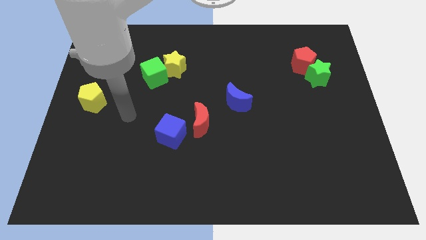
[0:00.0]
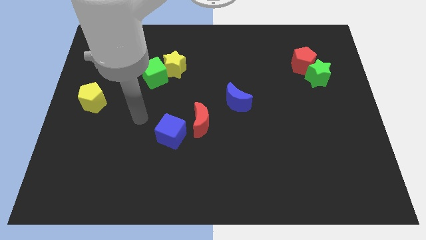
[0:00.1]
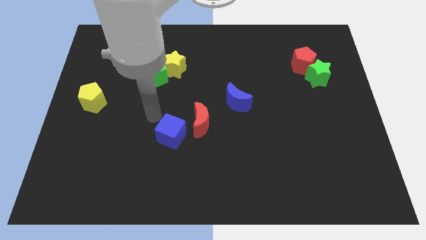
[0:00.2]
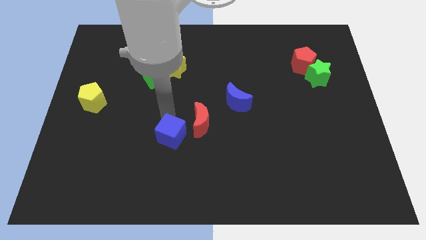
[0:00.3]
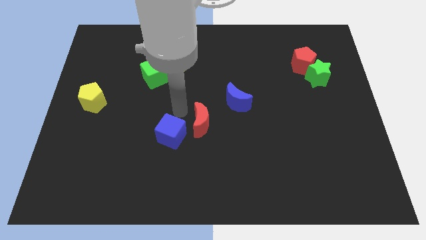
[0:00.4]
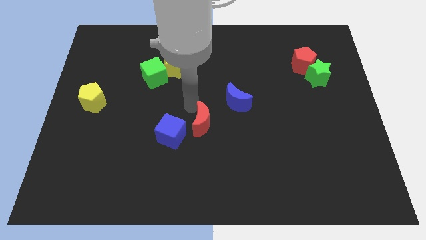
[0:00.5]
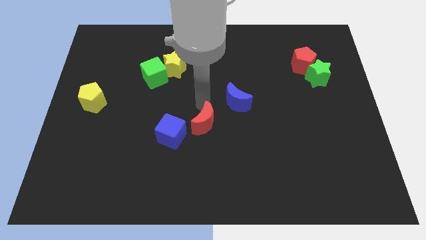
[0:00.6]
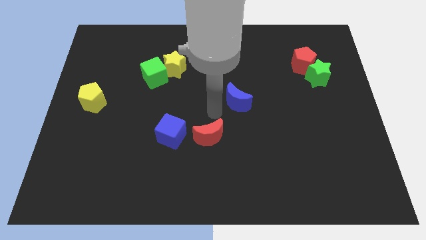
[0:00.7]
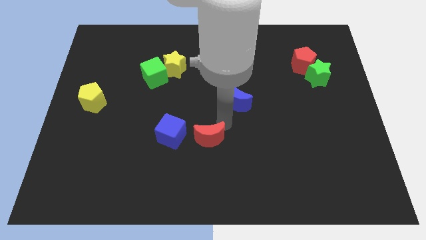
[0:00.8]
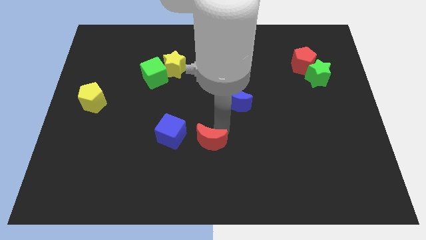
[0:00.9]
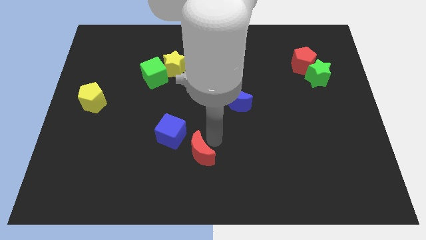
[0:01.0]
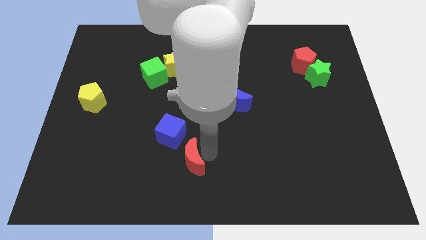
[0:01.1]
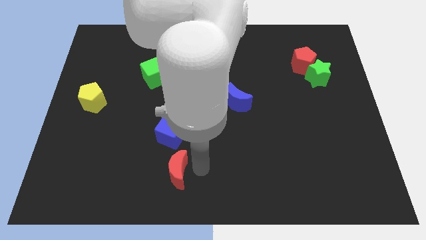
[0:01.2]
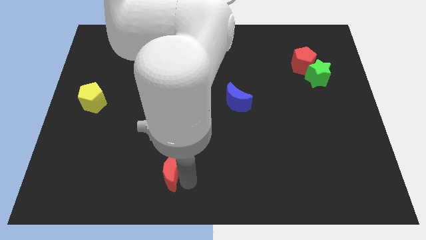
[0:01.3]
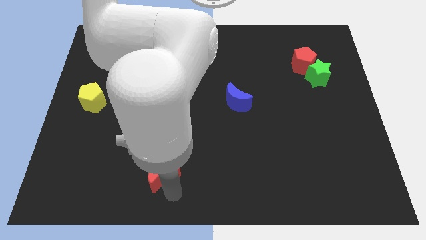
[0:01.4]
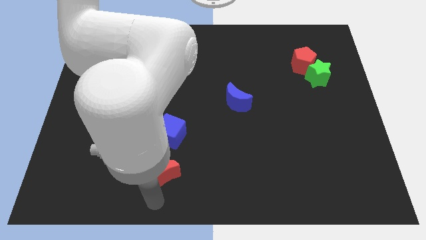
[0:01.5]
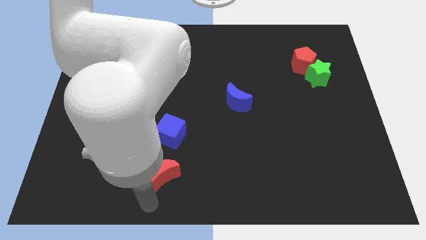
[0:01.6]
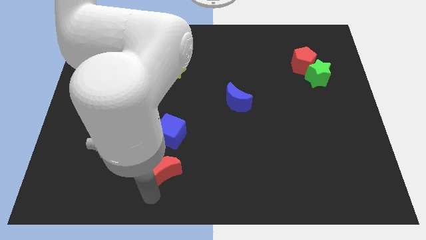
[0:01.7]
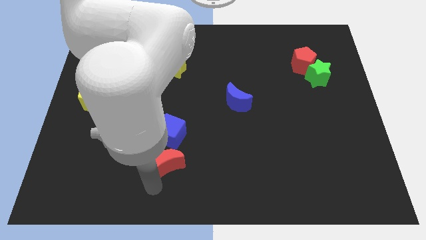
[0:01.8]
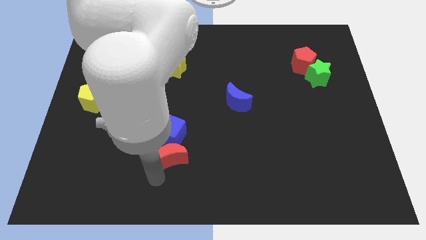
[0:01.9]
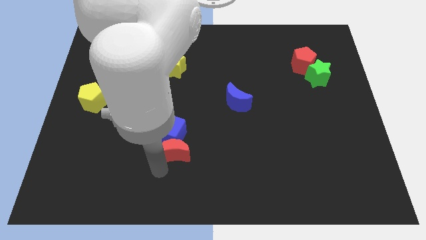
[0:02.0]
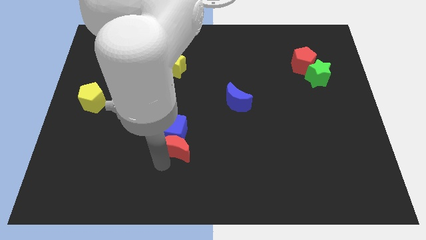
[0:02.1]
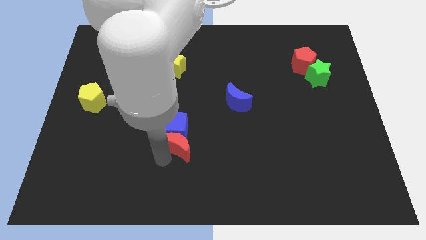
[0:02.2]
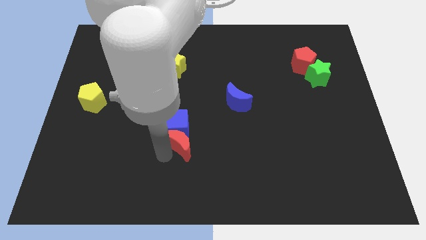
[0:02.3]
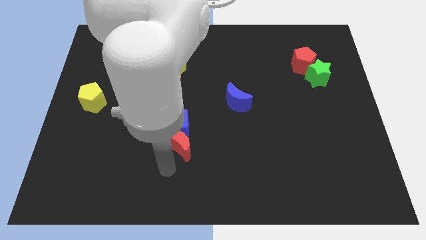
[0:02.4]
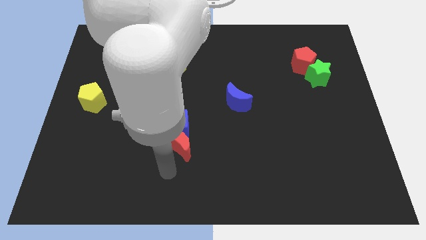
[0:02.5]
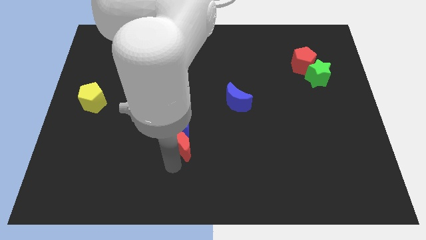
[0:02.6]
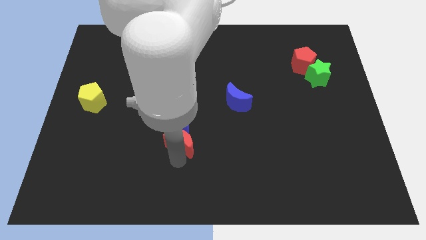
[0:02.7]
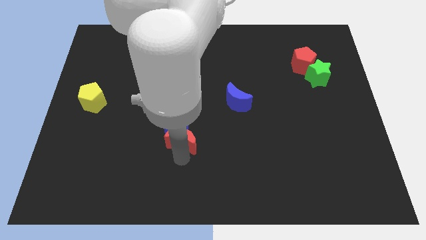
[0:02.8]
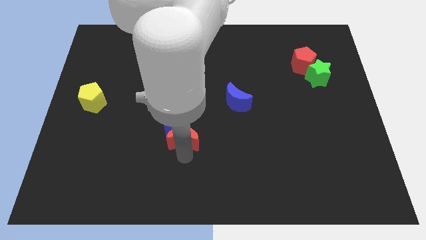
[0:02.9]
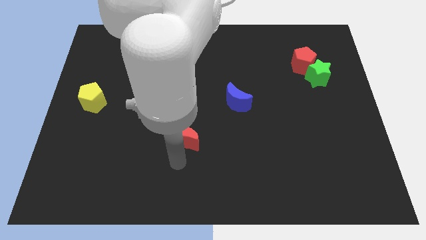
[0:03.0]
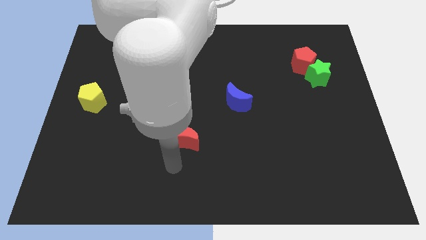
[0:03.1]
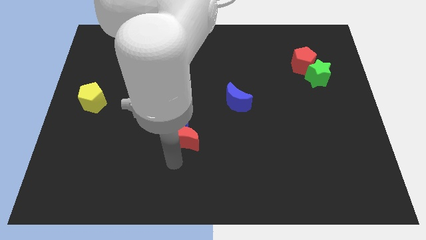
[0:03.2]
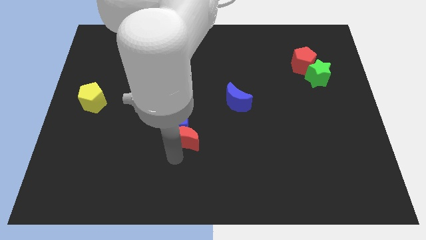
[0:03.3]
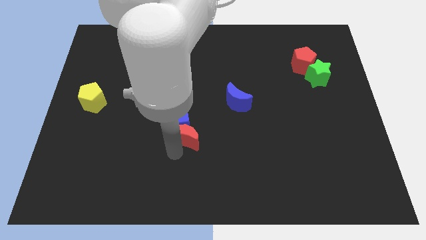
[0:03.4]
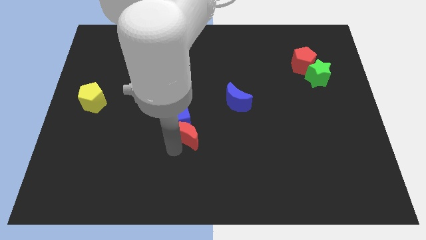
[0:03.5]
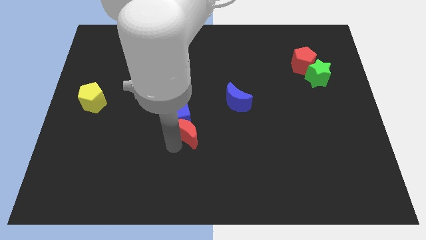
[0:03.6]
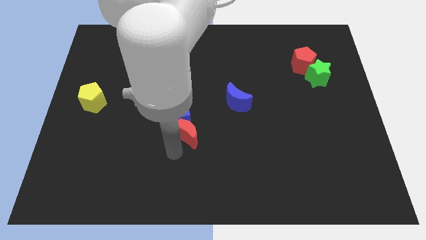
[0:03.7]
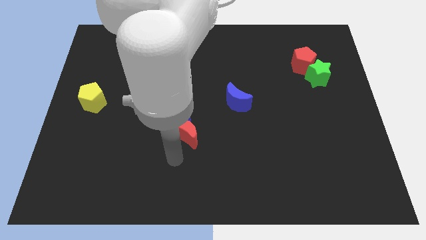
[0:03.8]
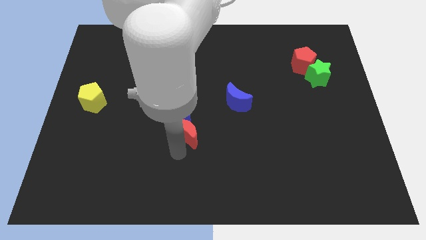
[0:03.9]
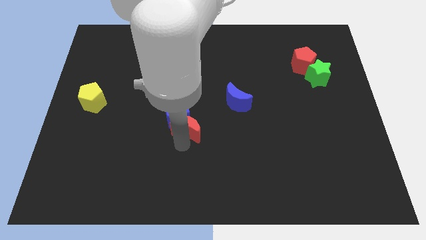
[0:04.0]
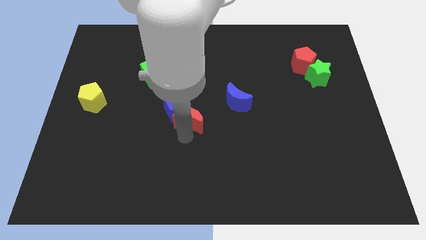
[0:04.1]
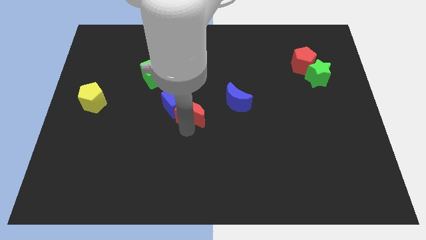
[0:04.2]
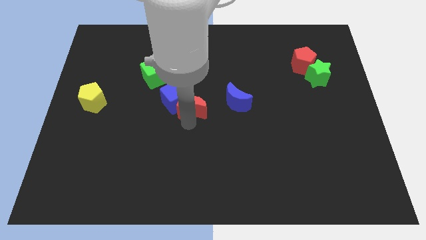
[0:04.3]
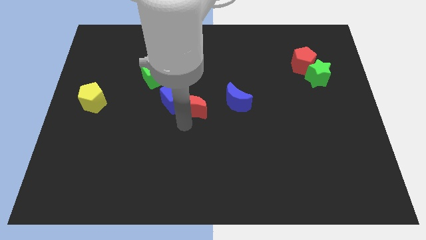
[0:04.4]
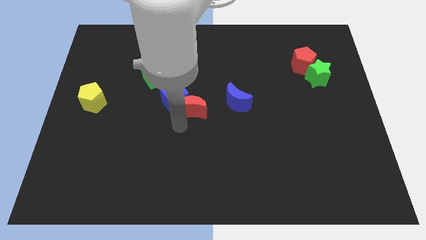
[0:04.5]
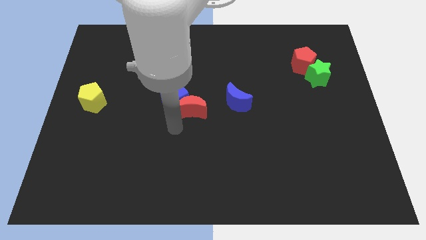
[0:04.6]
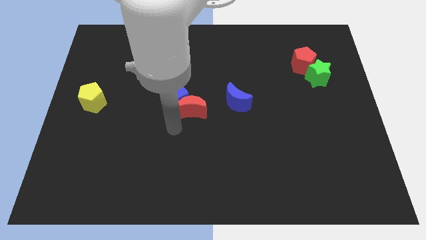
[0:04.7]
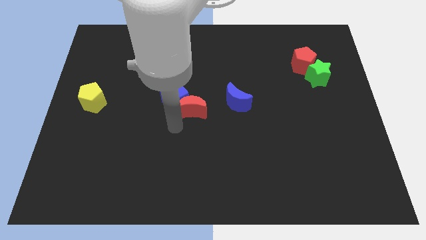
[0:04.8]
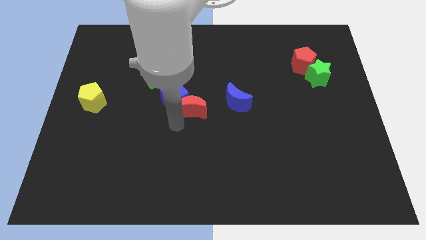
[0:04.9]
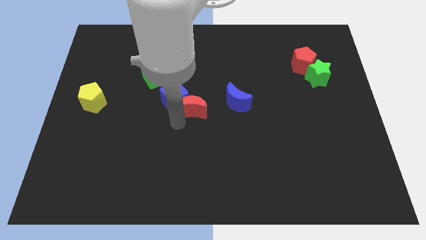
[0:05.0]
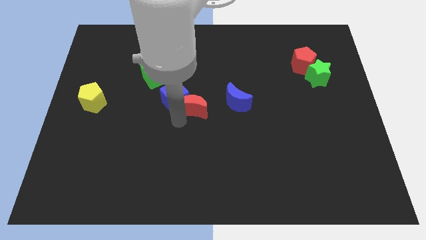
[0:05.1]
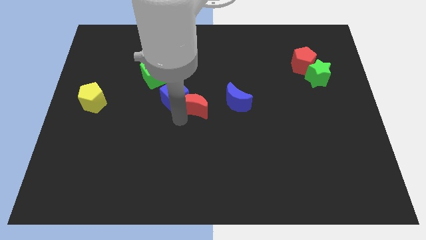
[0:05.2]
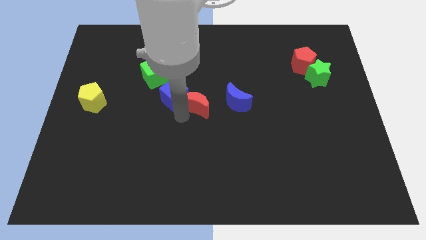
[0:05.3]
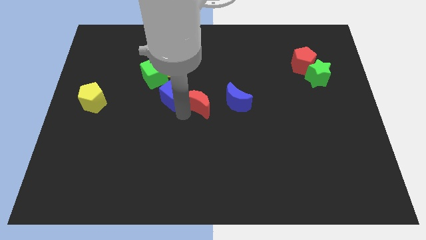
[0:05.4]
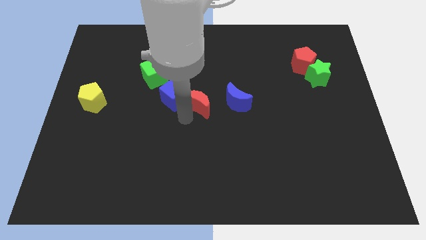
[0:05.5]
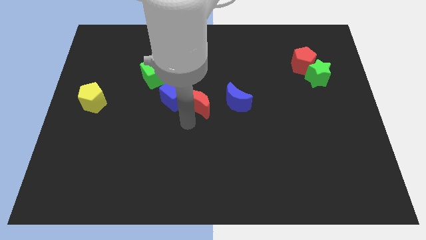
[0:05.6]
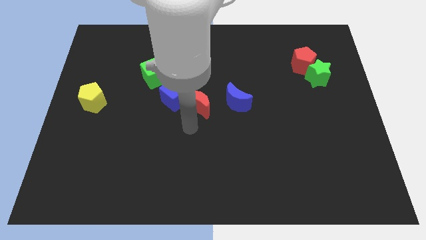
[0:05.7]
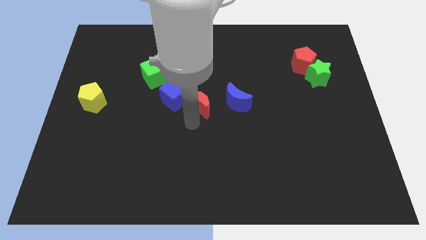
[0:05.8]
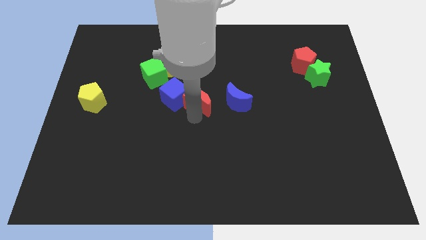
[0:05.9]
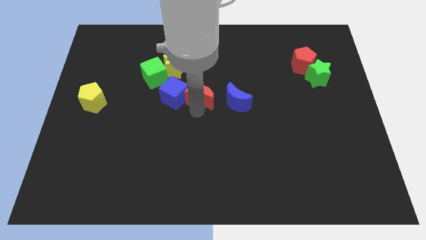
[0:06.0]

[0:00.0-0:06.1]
push the red moon a little upwards

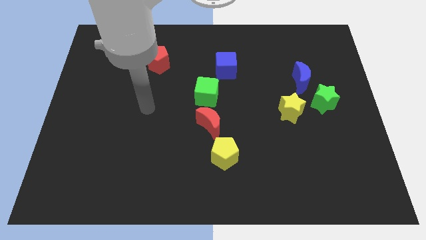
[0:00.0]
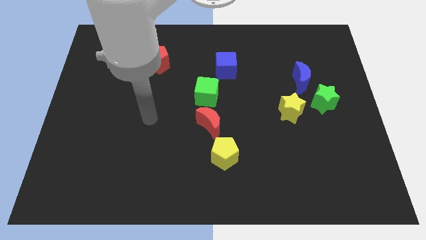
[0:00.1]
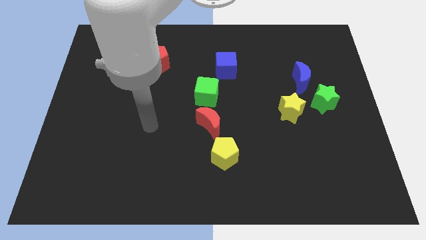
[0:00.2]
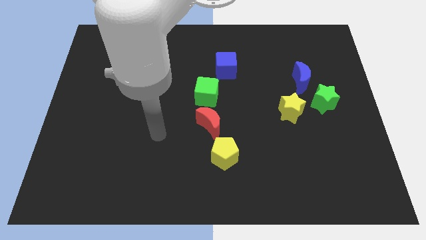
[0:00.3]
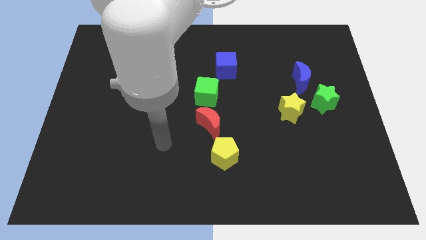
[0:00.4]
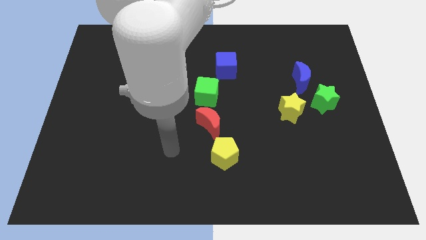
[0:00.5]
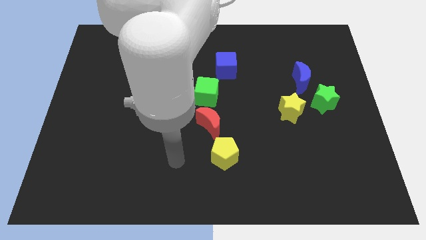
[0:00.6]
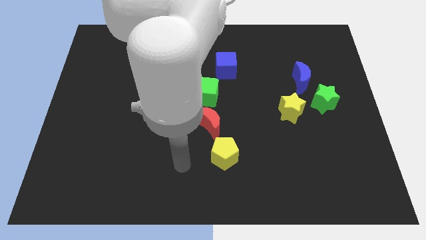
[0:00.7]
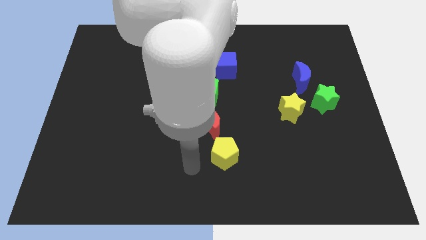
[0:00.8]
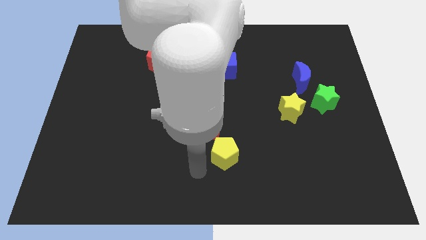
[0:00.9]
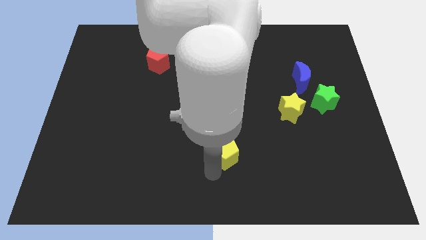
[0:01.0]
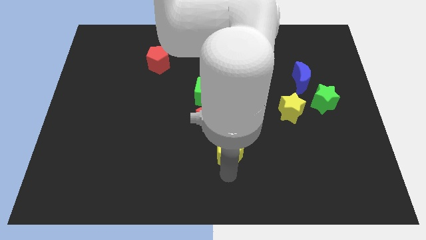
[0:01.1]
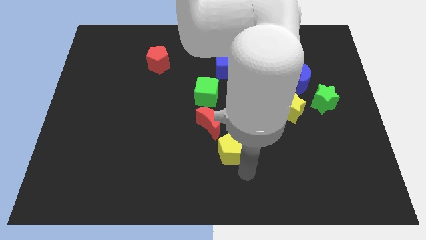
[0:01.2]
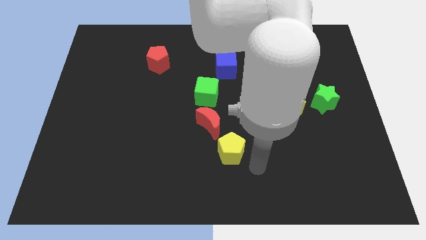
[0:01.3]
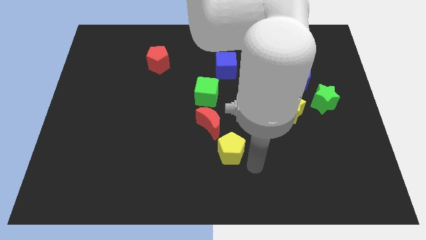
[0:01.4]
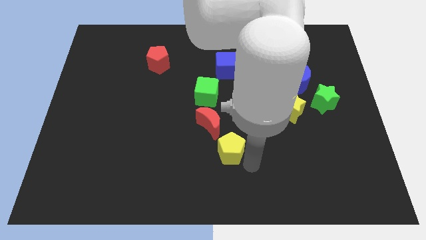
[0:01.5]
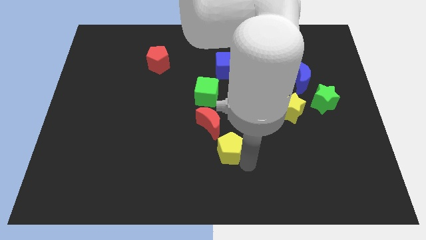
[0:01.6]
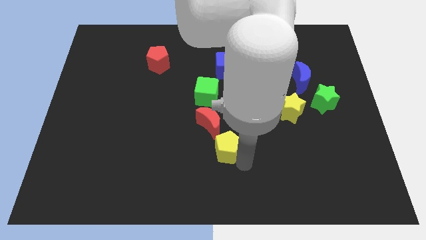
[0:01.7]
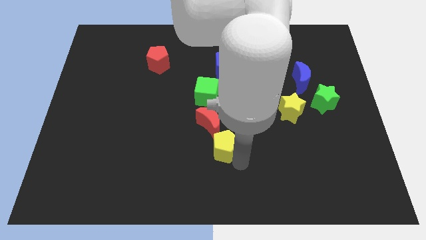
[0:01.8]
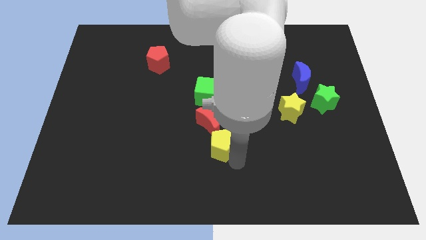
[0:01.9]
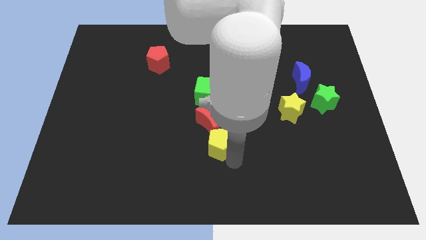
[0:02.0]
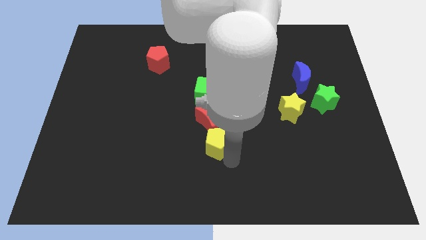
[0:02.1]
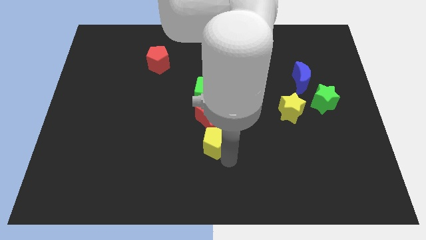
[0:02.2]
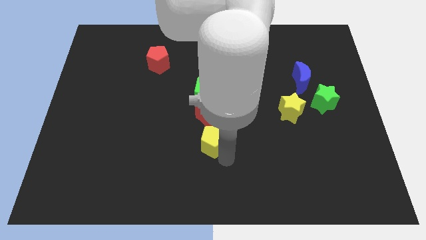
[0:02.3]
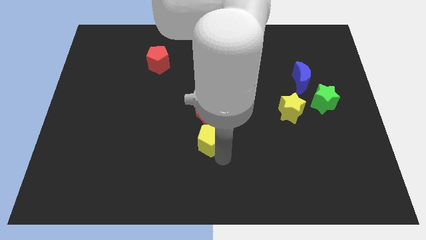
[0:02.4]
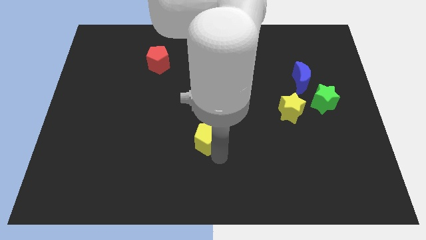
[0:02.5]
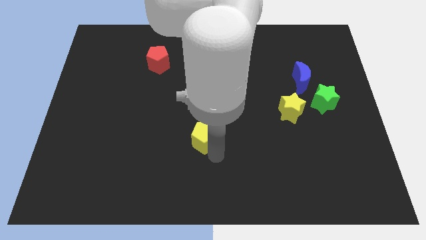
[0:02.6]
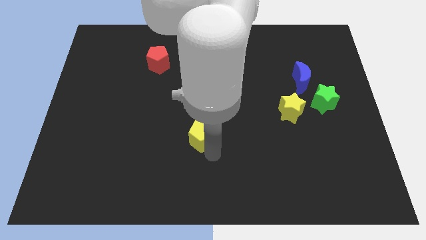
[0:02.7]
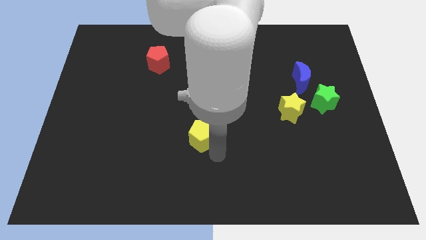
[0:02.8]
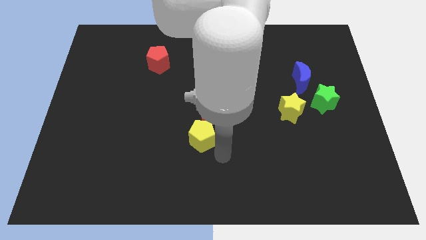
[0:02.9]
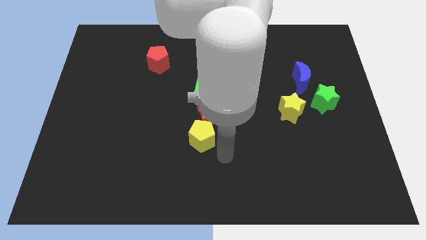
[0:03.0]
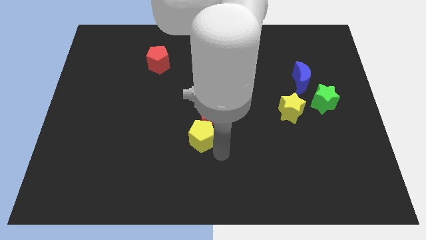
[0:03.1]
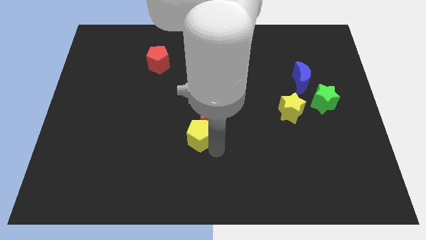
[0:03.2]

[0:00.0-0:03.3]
slide the yellow pentagon a little diagonally upwards and left
